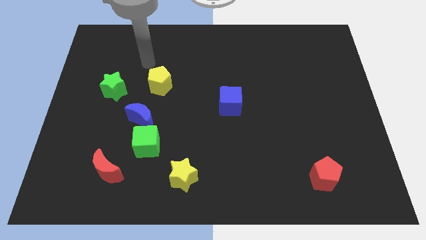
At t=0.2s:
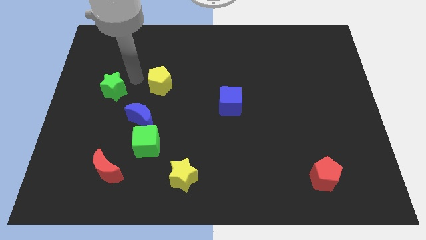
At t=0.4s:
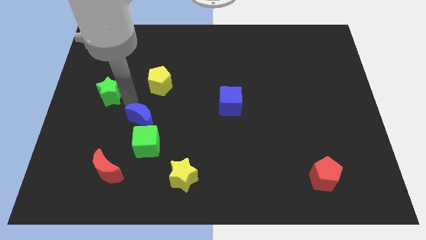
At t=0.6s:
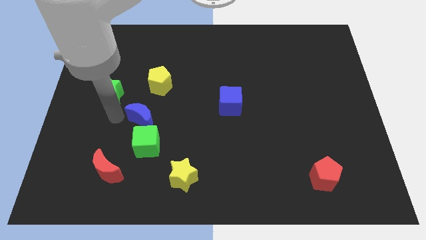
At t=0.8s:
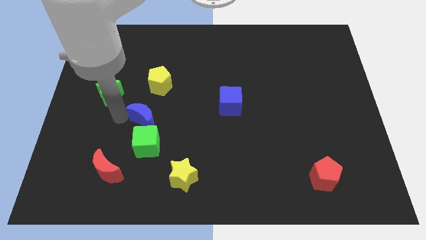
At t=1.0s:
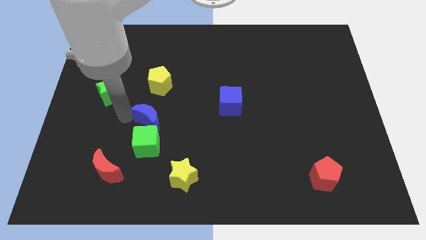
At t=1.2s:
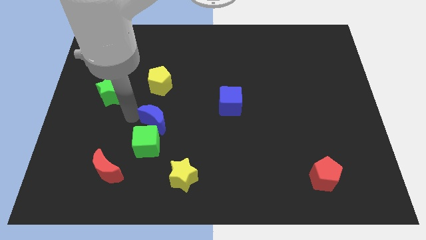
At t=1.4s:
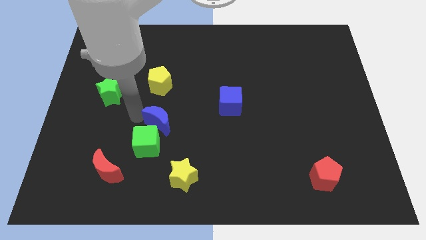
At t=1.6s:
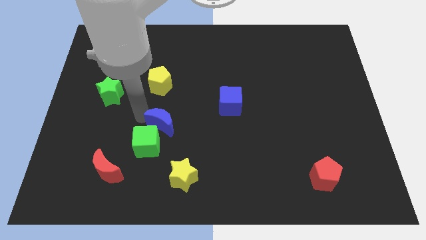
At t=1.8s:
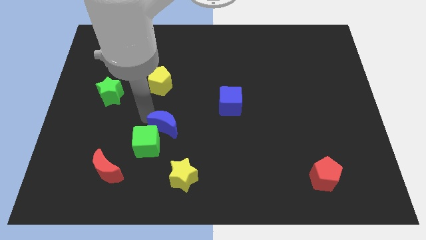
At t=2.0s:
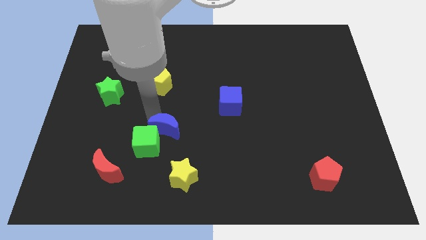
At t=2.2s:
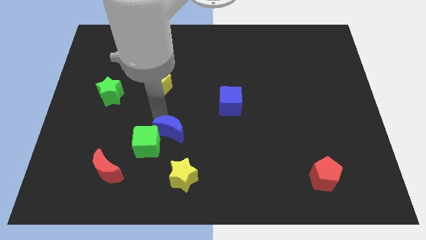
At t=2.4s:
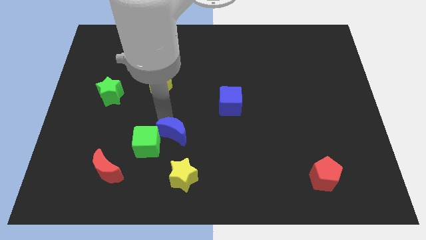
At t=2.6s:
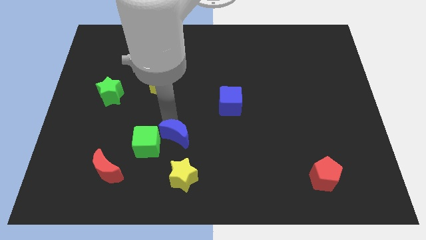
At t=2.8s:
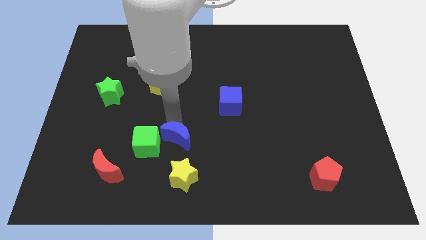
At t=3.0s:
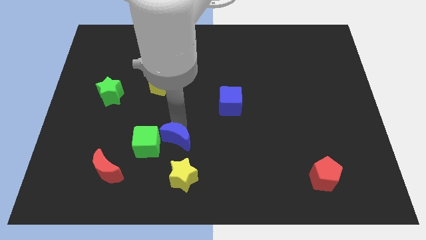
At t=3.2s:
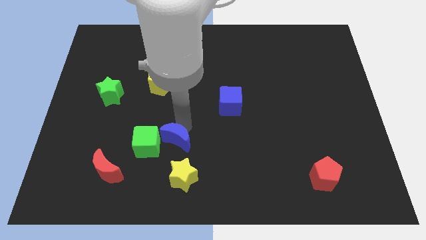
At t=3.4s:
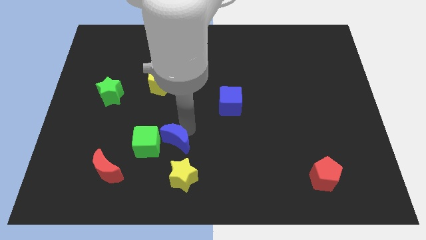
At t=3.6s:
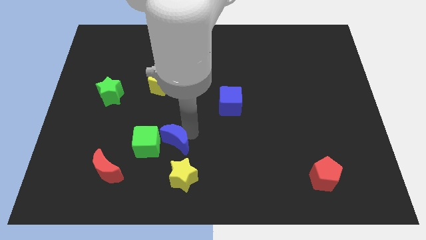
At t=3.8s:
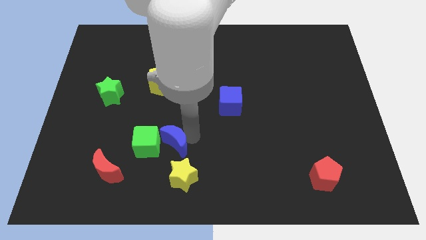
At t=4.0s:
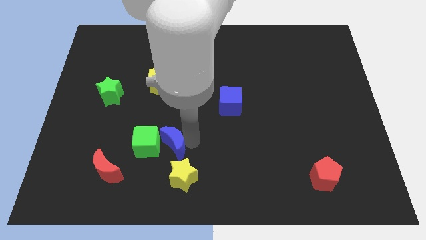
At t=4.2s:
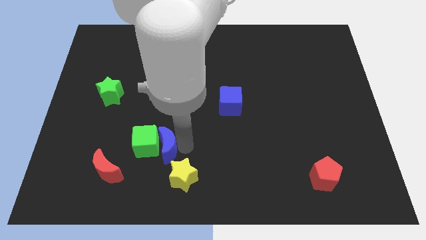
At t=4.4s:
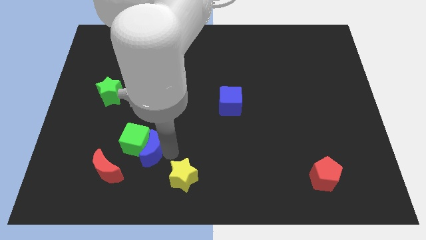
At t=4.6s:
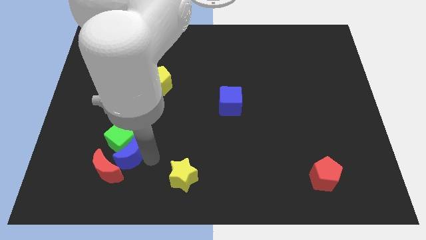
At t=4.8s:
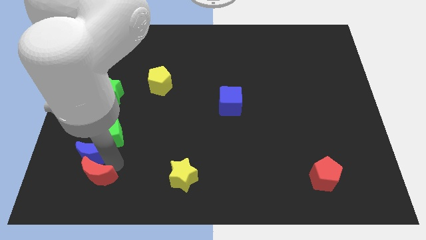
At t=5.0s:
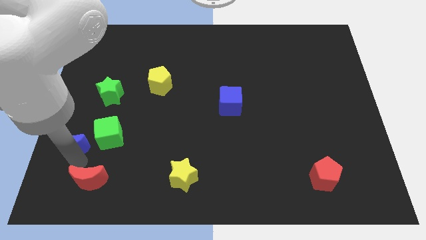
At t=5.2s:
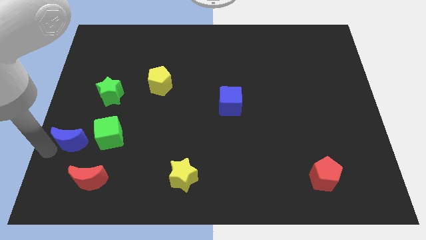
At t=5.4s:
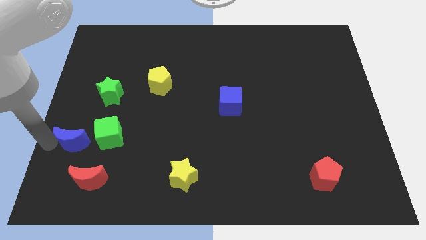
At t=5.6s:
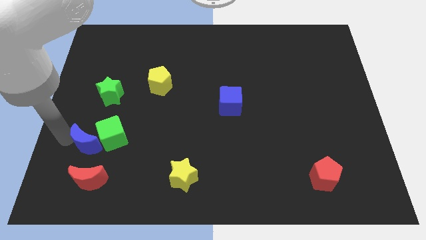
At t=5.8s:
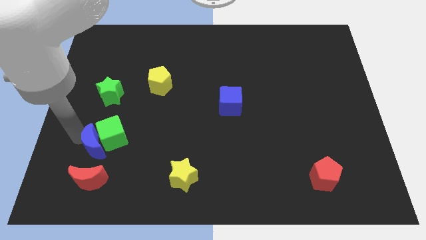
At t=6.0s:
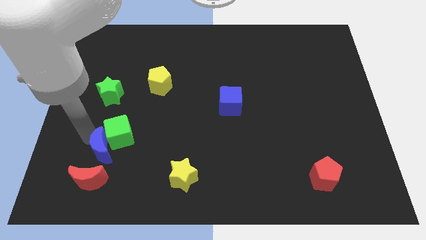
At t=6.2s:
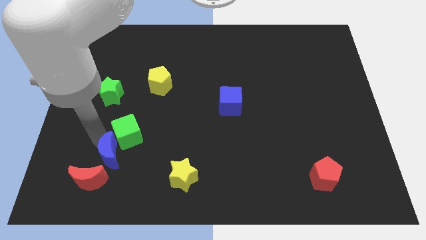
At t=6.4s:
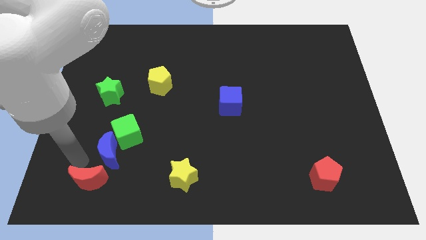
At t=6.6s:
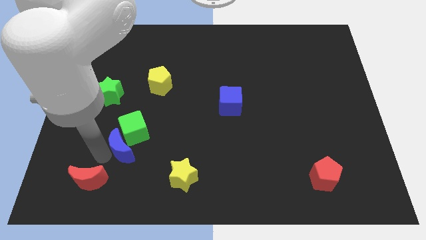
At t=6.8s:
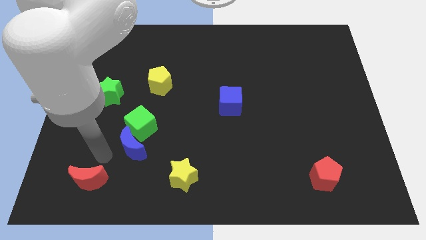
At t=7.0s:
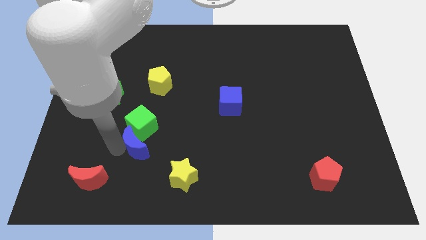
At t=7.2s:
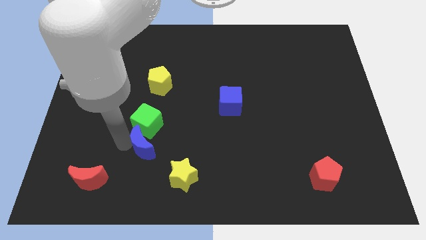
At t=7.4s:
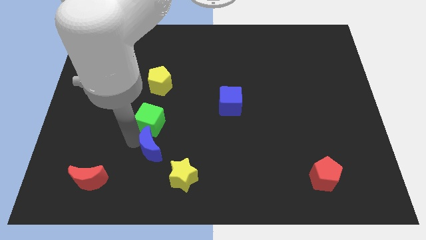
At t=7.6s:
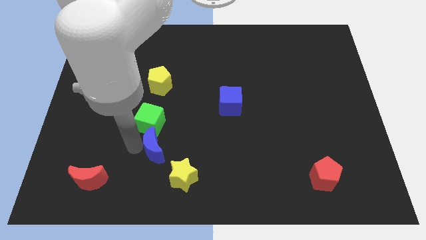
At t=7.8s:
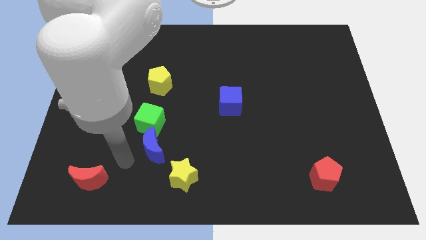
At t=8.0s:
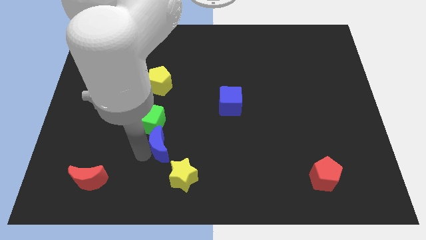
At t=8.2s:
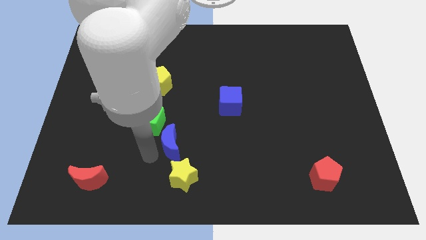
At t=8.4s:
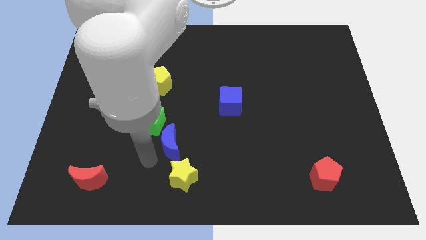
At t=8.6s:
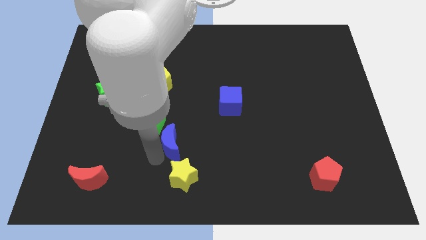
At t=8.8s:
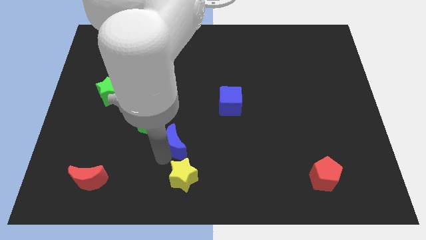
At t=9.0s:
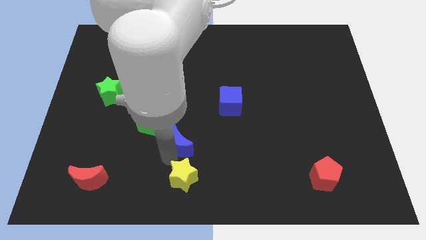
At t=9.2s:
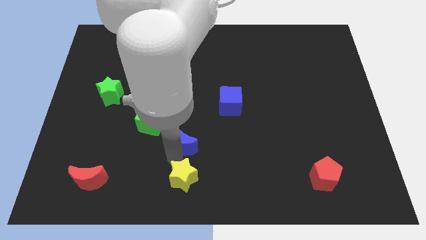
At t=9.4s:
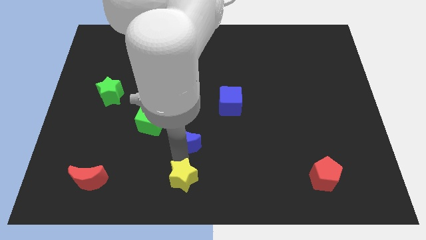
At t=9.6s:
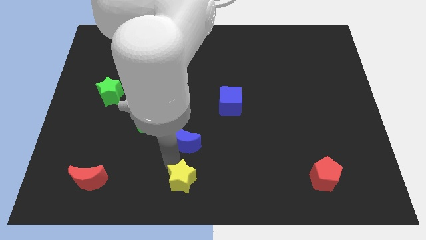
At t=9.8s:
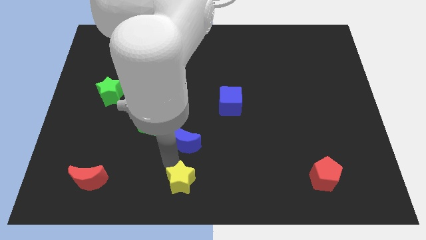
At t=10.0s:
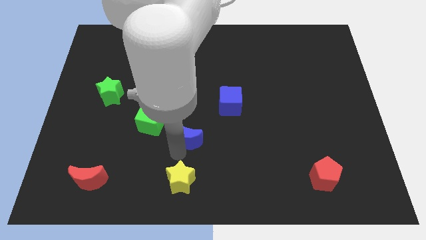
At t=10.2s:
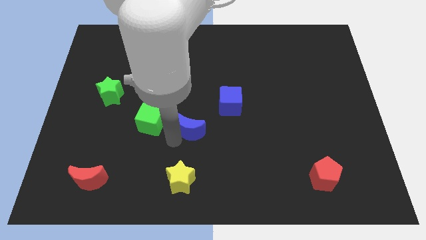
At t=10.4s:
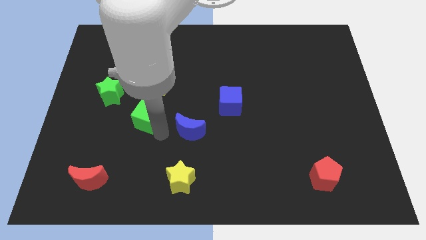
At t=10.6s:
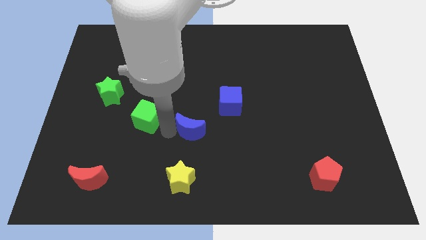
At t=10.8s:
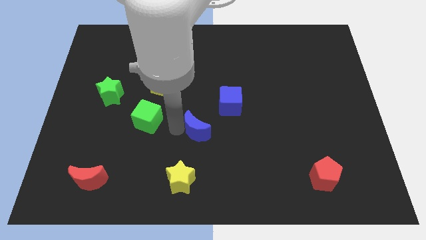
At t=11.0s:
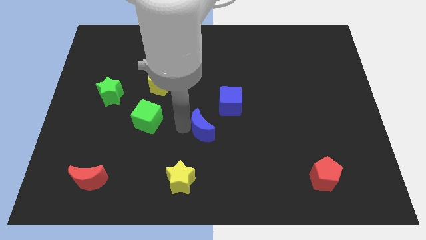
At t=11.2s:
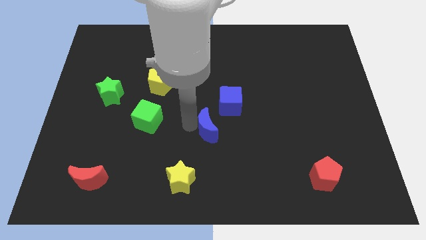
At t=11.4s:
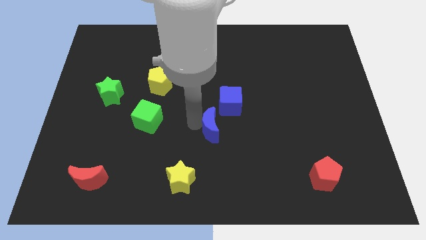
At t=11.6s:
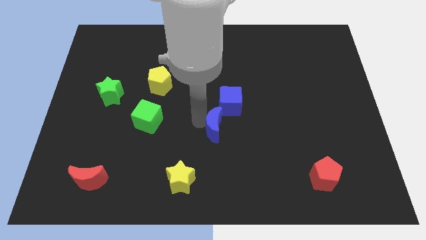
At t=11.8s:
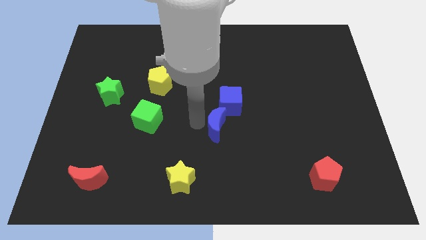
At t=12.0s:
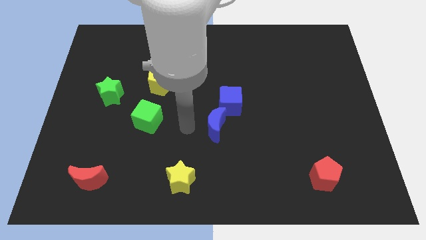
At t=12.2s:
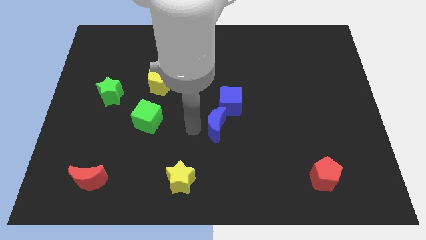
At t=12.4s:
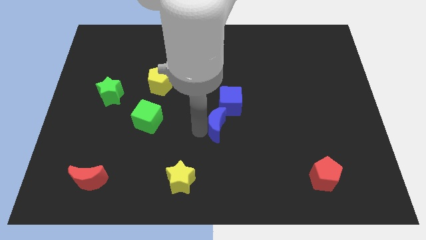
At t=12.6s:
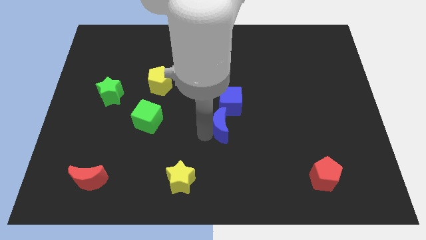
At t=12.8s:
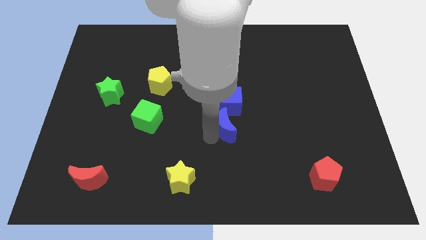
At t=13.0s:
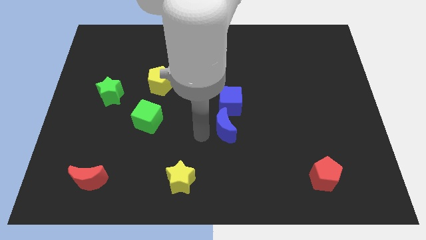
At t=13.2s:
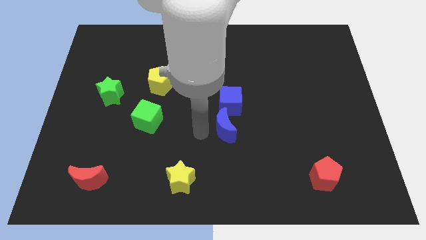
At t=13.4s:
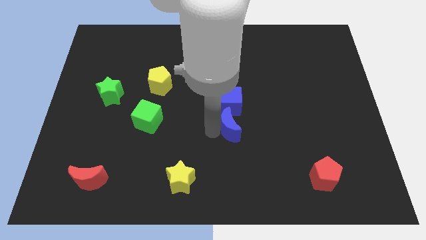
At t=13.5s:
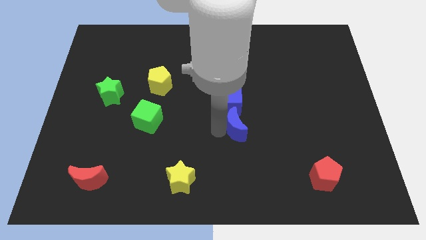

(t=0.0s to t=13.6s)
slide the blue moon to the right

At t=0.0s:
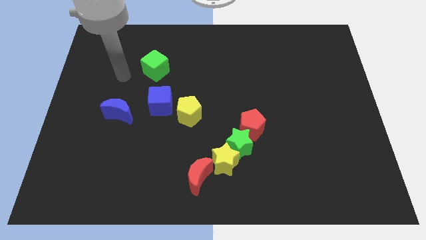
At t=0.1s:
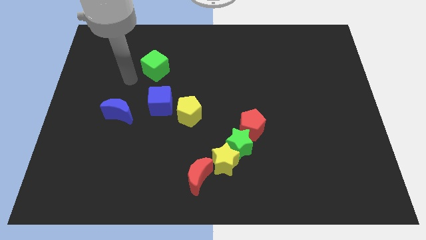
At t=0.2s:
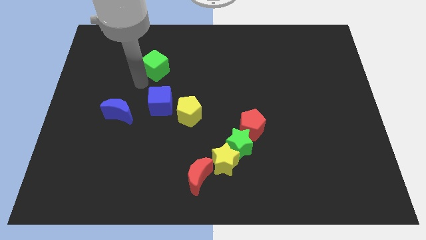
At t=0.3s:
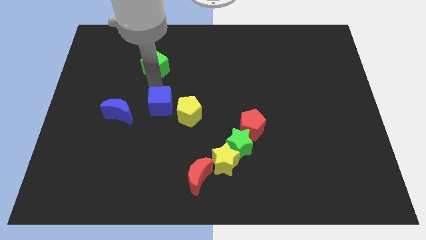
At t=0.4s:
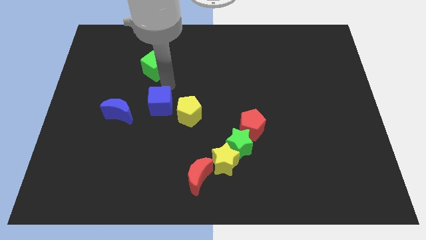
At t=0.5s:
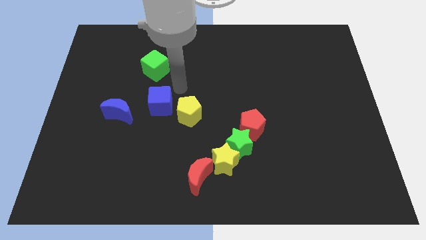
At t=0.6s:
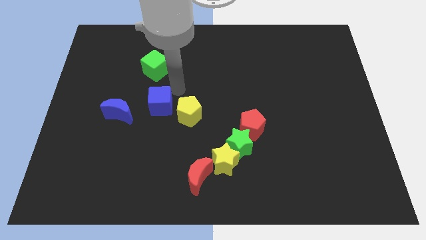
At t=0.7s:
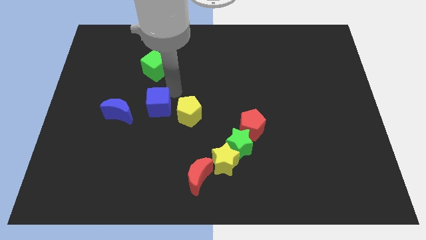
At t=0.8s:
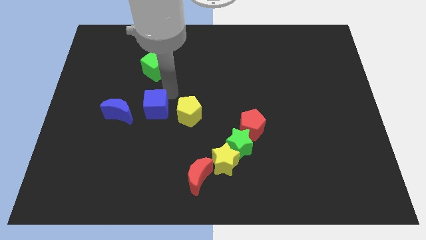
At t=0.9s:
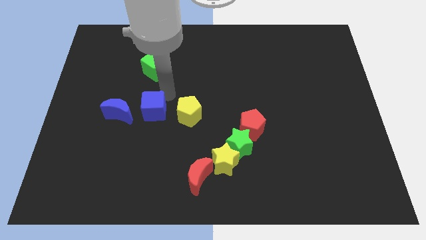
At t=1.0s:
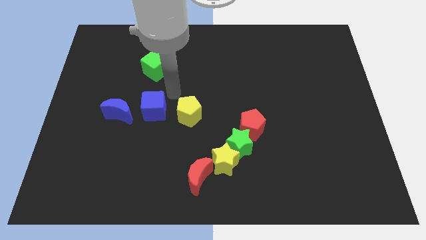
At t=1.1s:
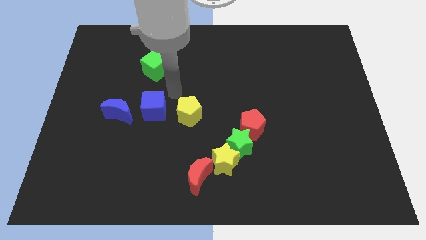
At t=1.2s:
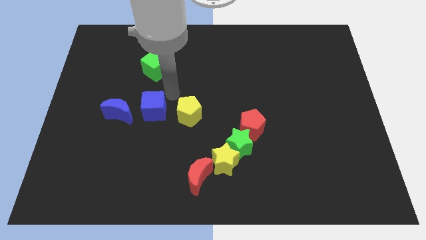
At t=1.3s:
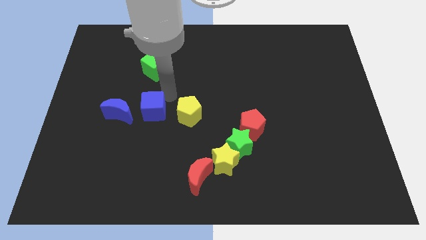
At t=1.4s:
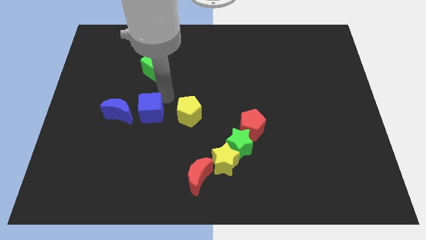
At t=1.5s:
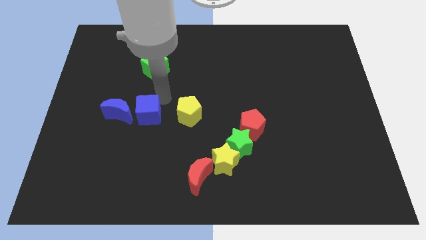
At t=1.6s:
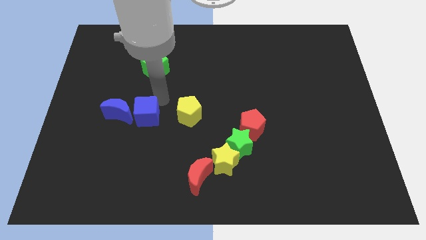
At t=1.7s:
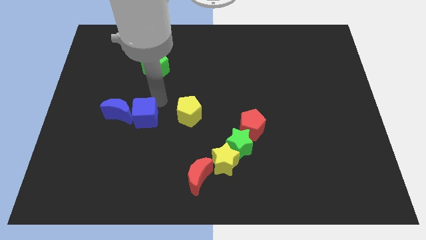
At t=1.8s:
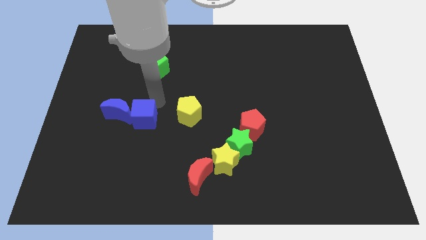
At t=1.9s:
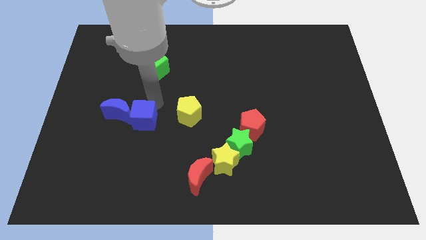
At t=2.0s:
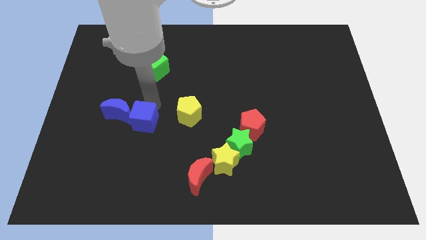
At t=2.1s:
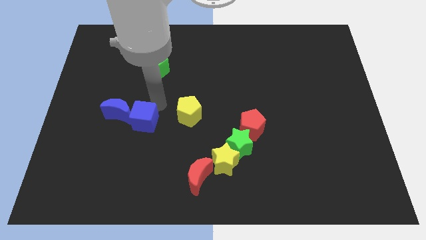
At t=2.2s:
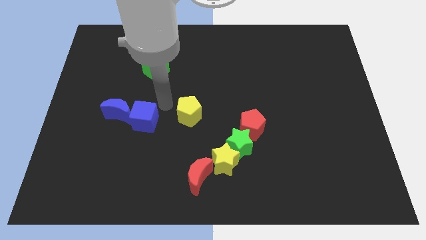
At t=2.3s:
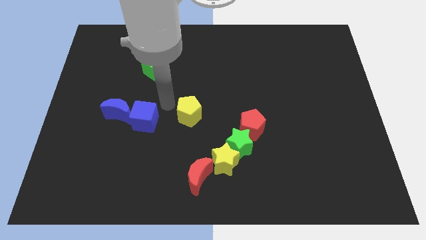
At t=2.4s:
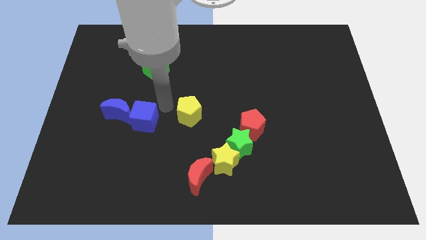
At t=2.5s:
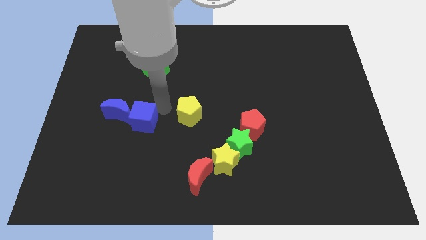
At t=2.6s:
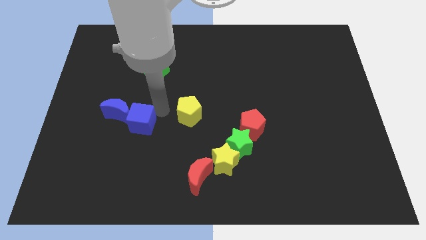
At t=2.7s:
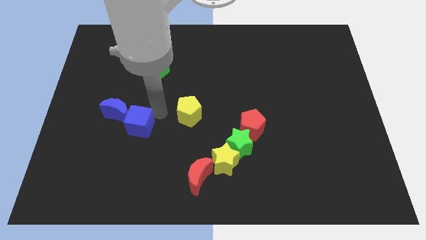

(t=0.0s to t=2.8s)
slightly slide the blue cube downwards and to the left diagonally
